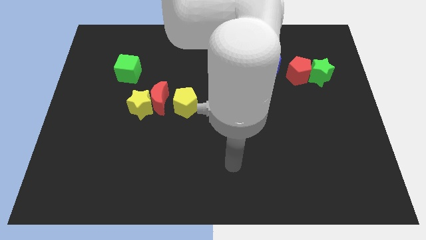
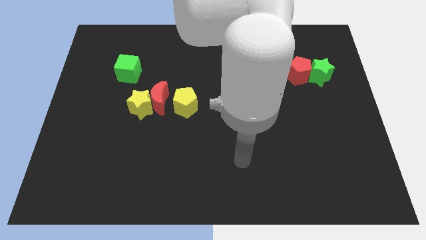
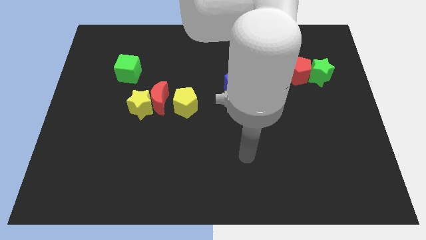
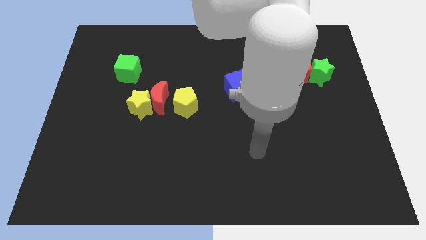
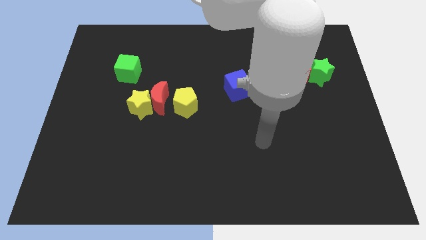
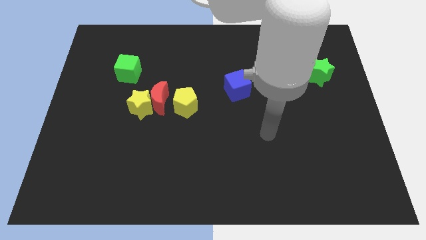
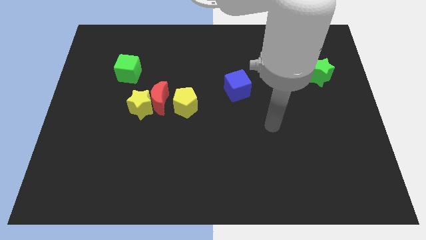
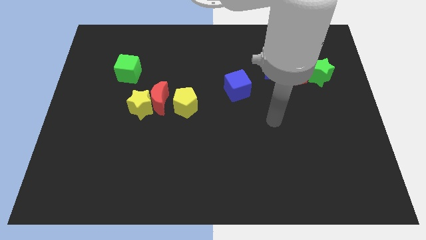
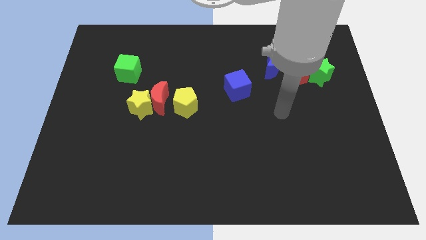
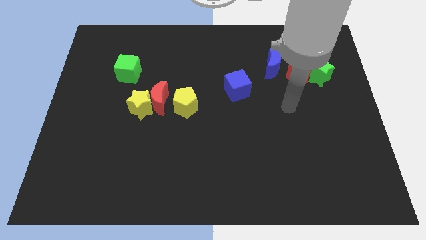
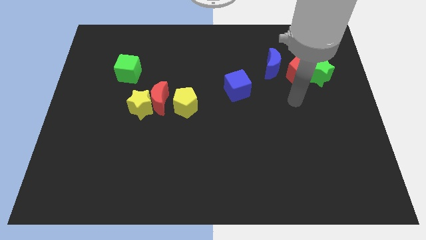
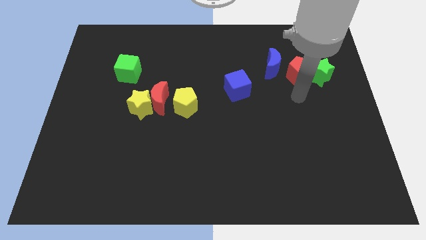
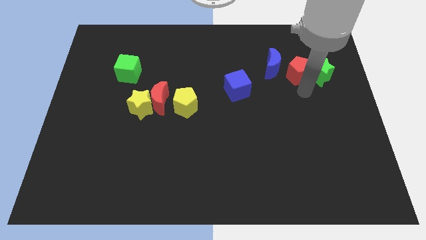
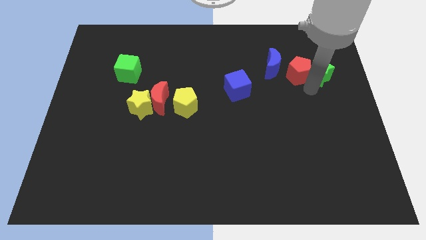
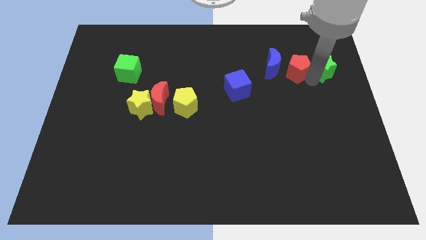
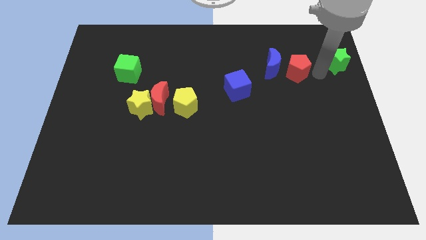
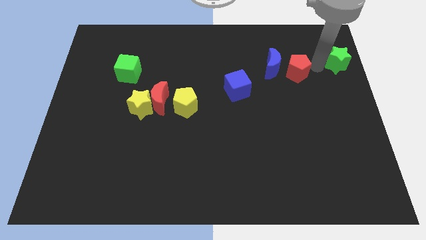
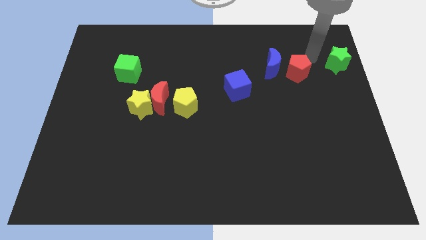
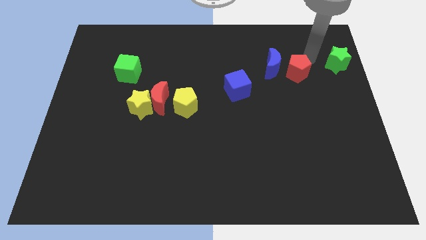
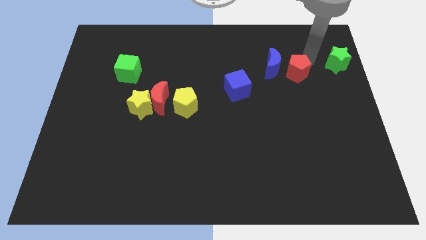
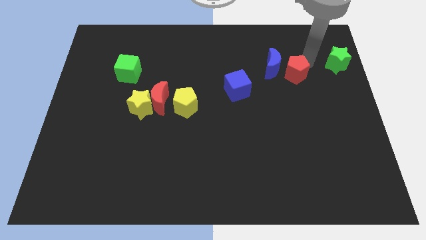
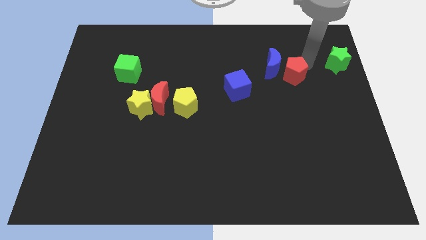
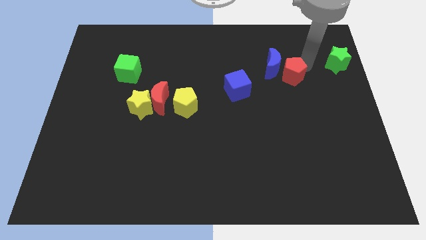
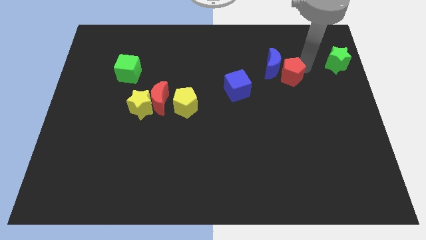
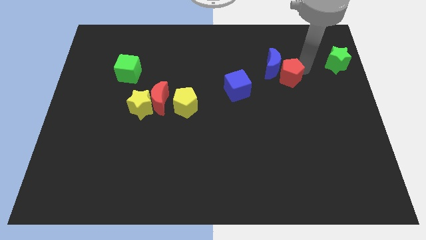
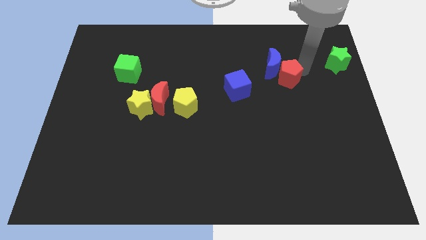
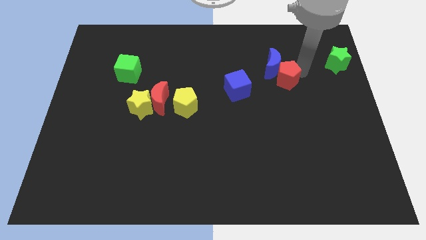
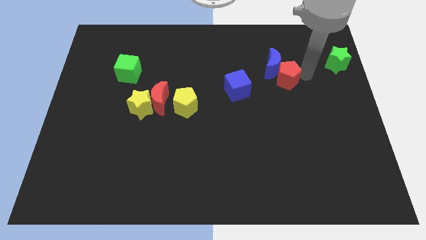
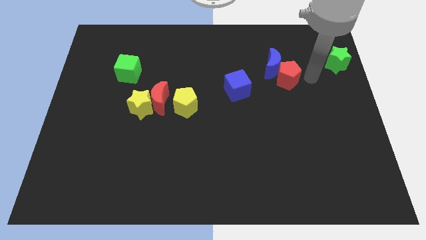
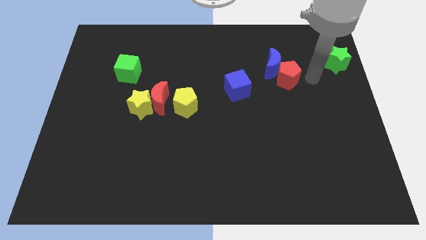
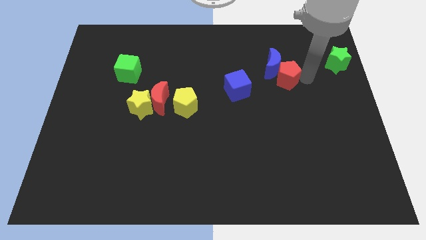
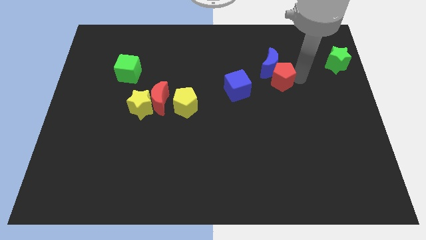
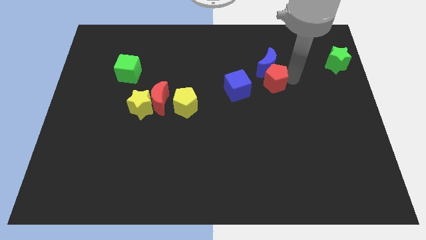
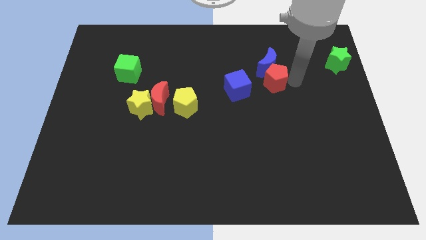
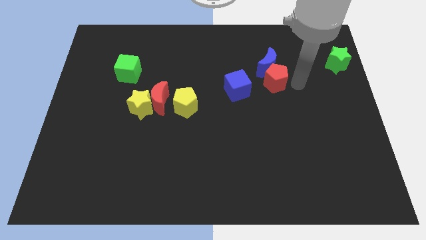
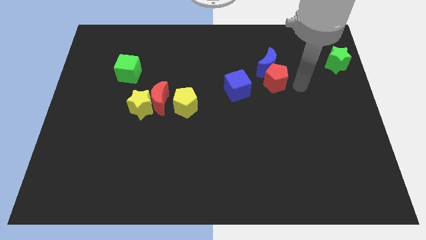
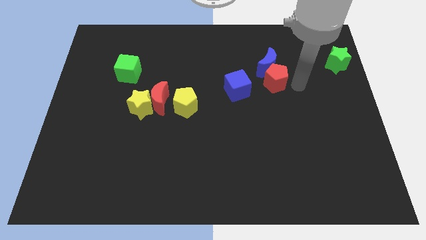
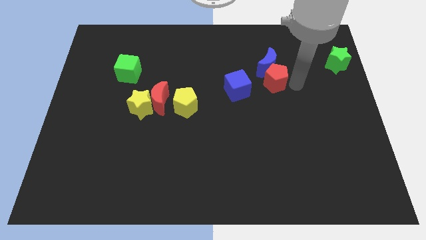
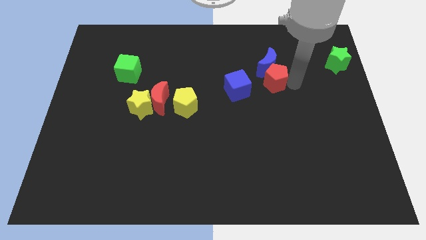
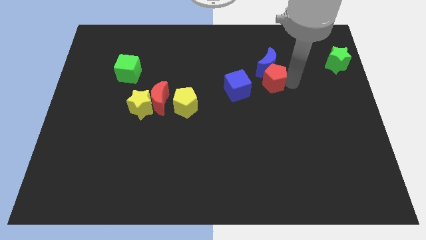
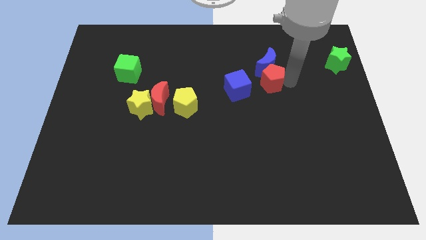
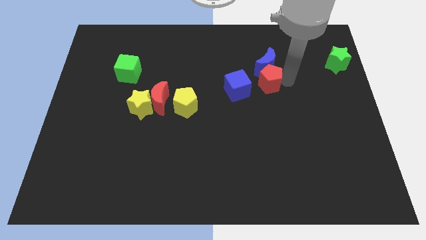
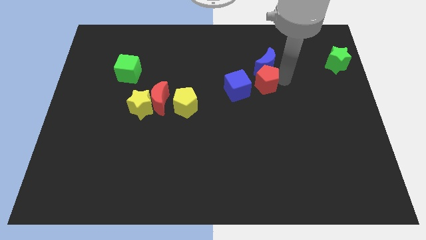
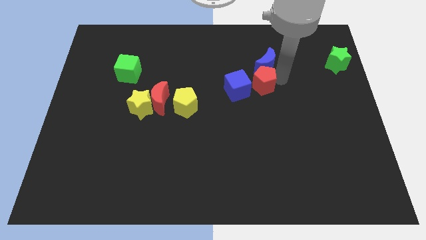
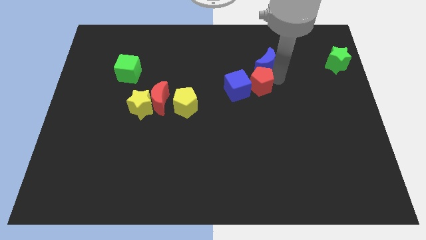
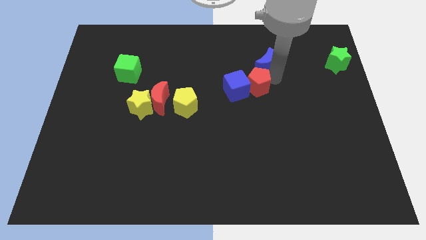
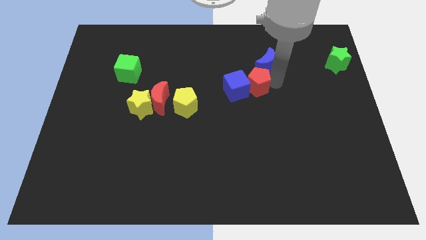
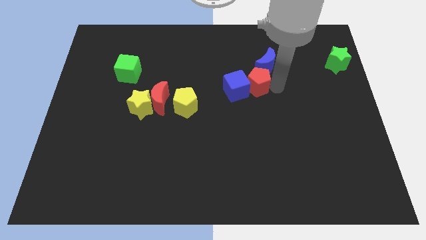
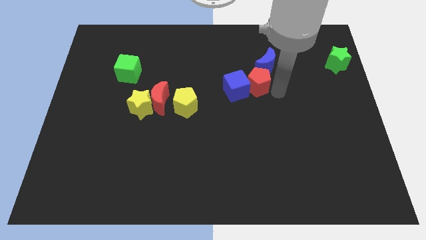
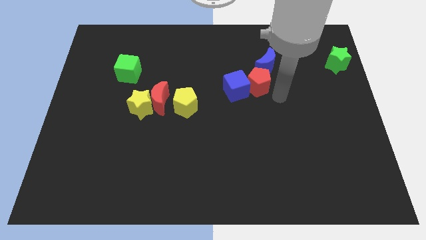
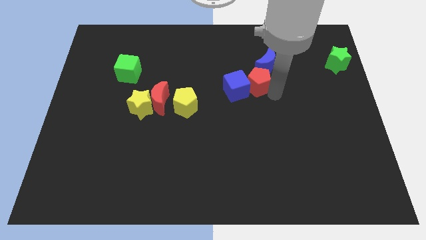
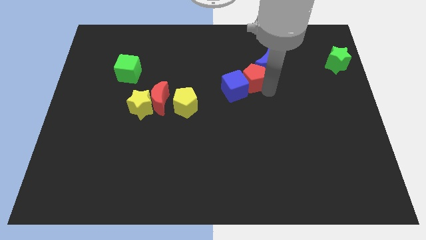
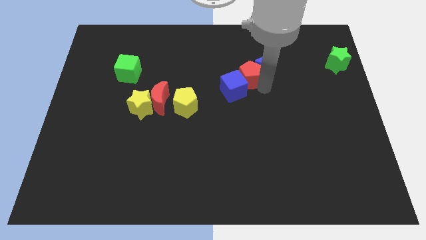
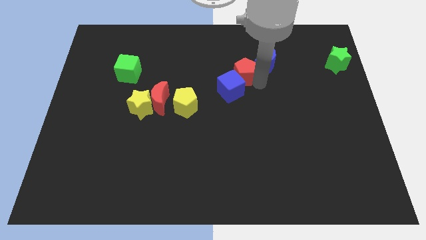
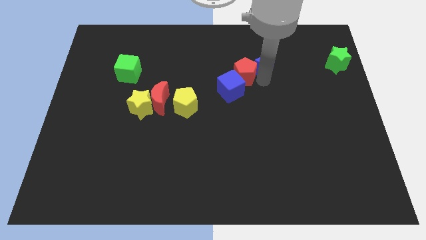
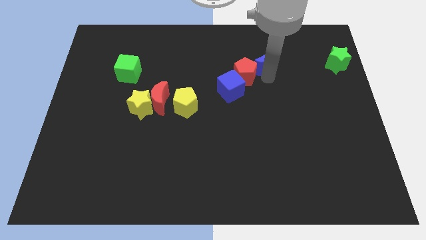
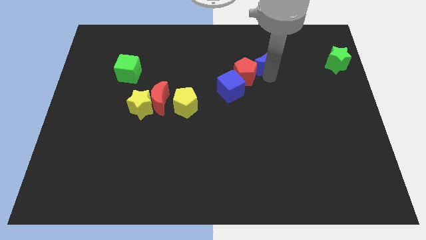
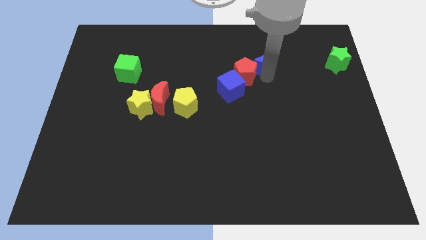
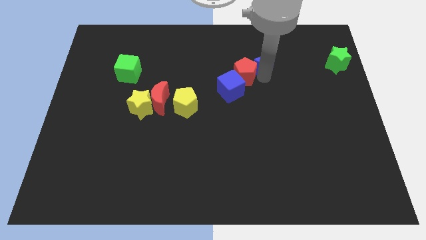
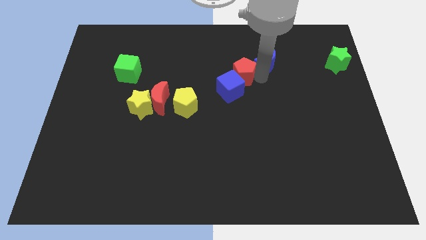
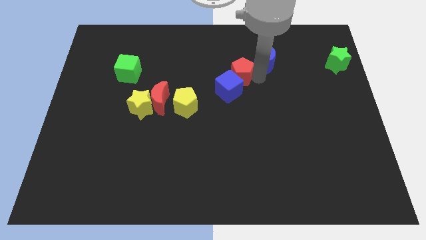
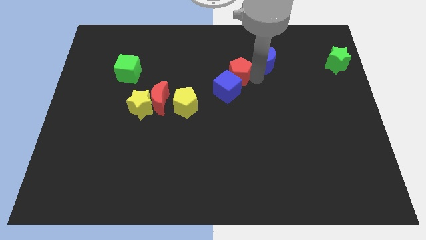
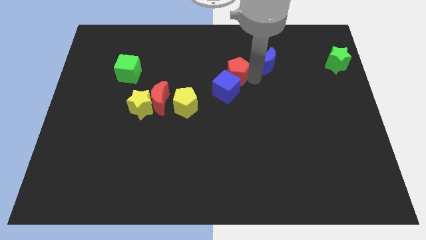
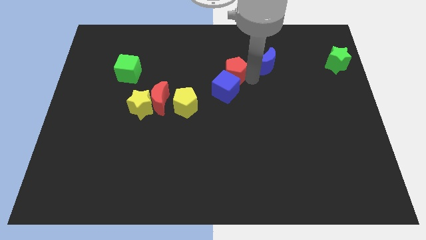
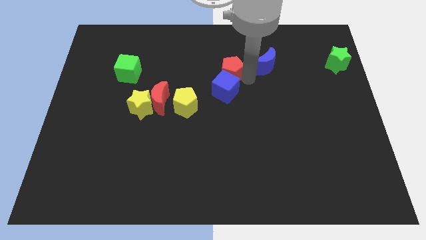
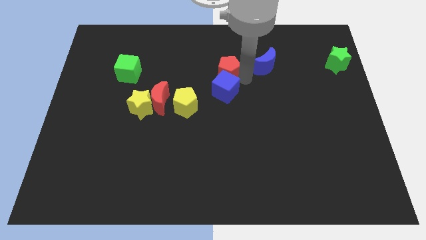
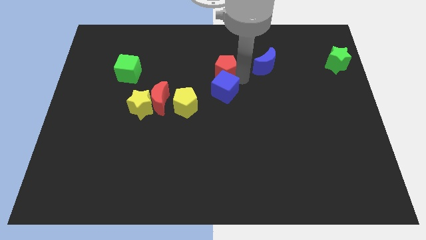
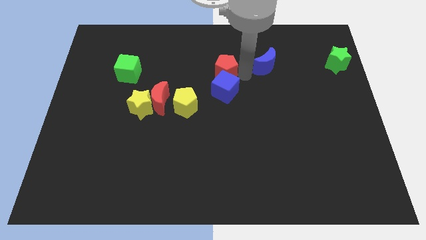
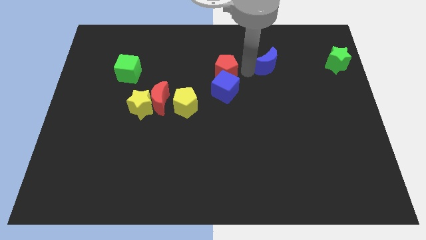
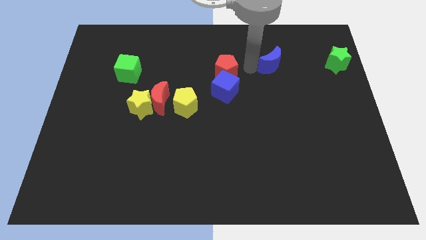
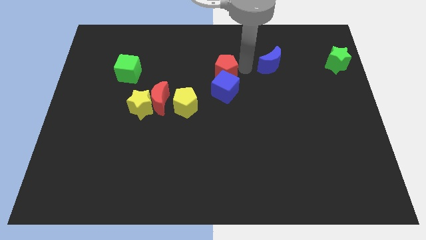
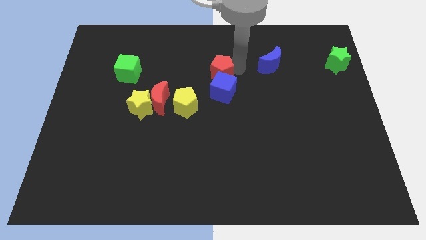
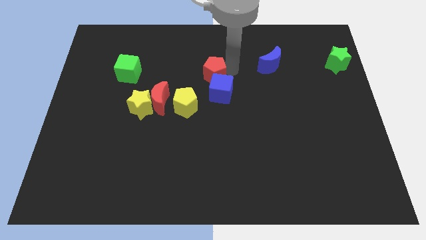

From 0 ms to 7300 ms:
move the red pentagon left

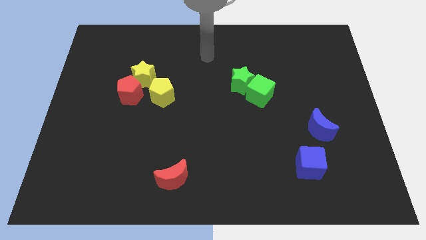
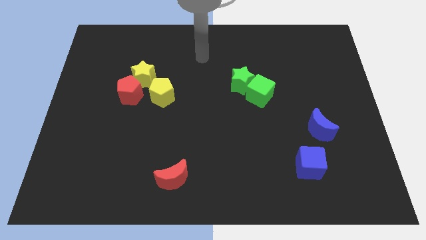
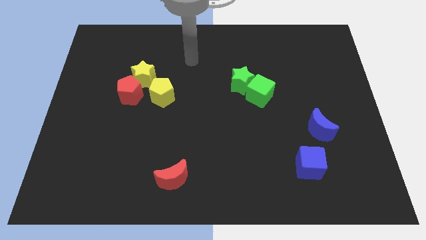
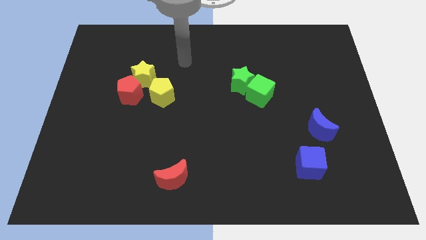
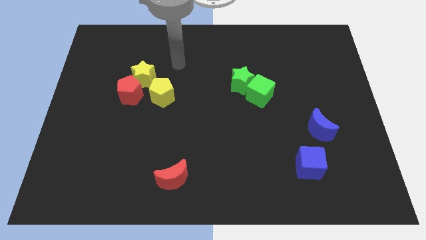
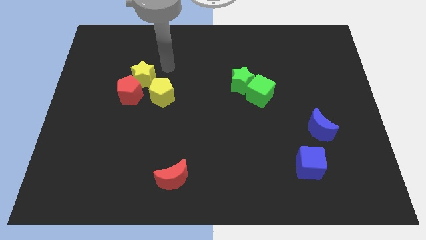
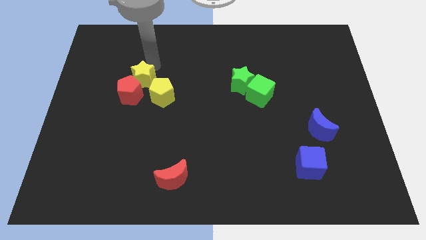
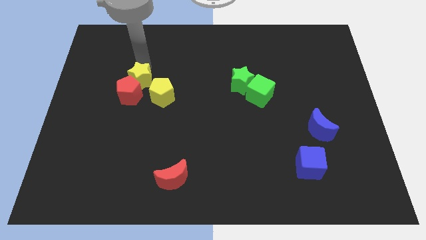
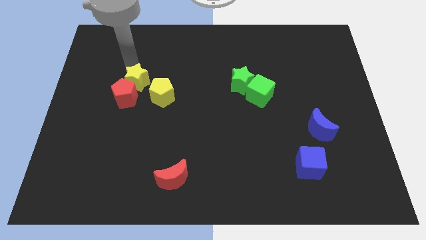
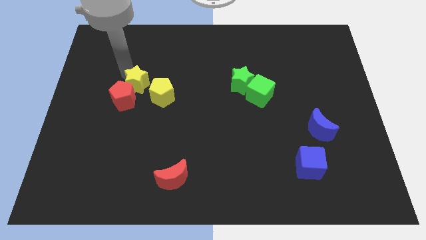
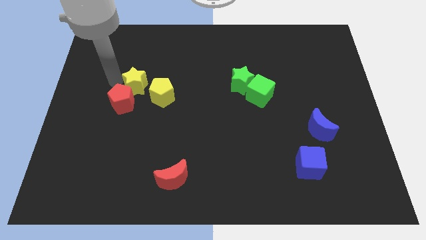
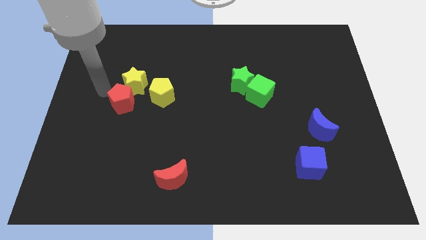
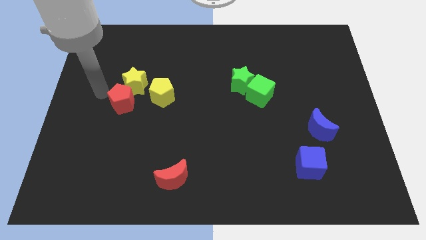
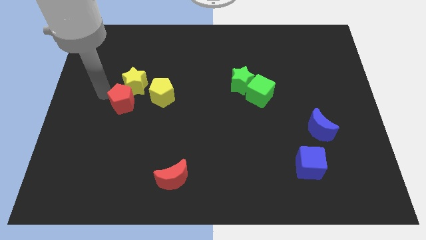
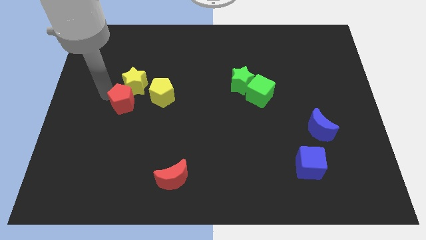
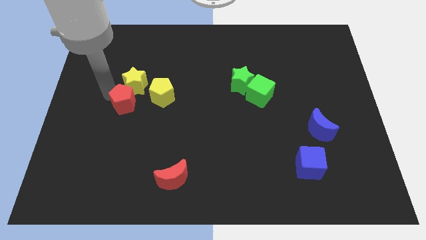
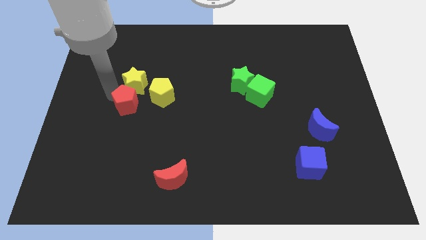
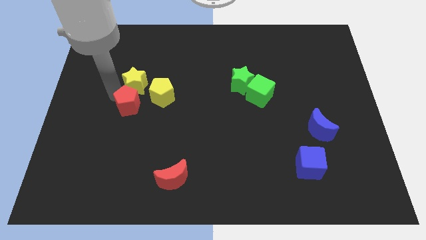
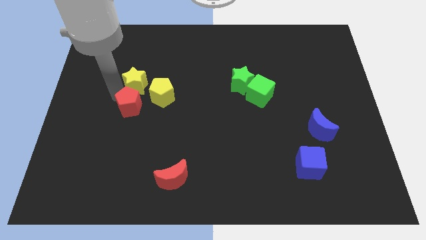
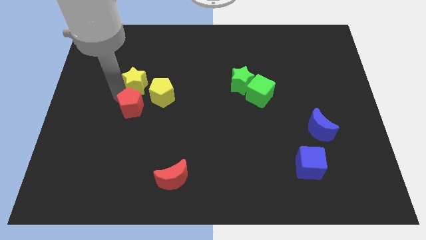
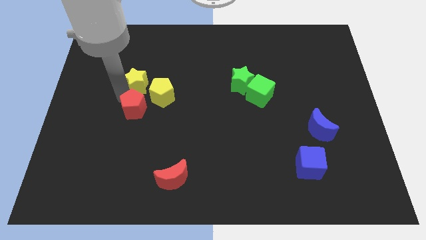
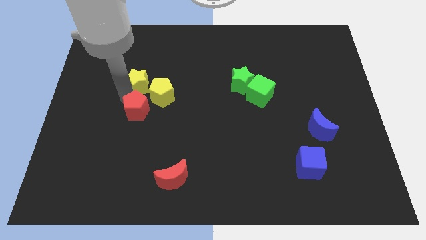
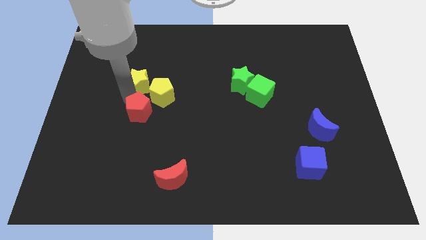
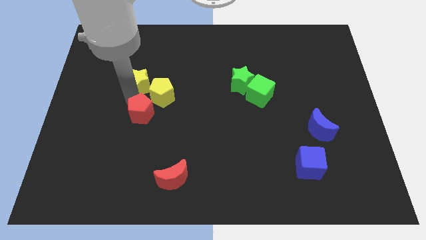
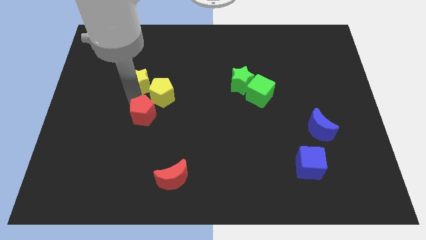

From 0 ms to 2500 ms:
slightly push the red pentagon diagonally downwards and right
